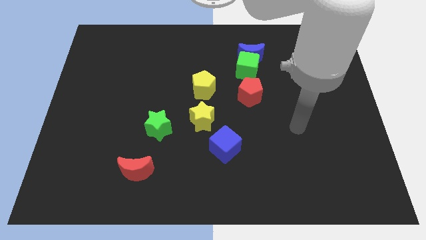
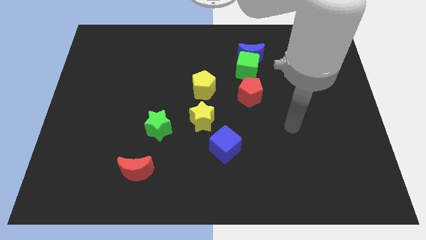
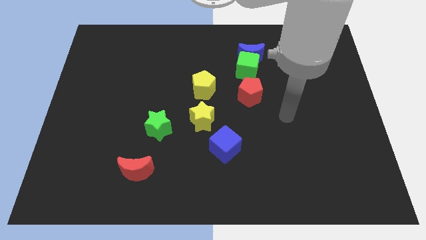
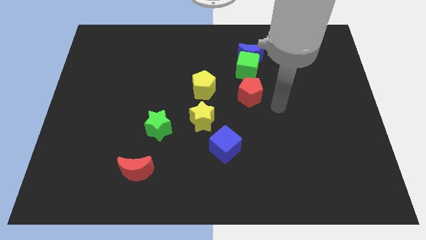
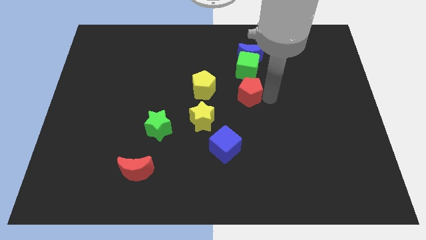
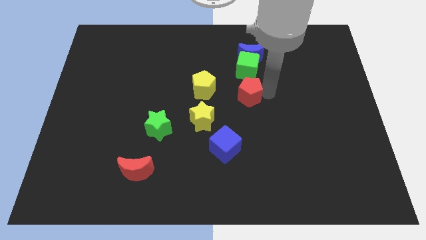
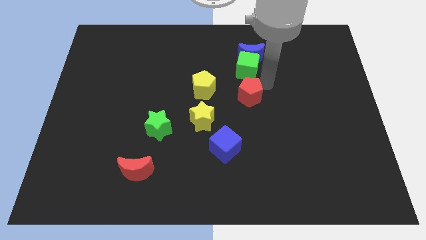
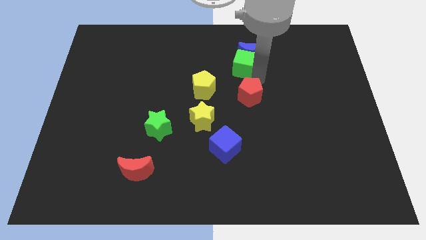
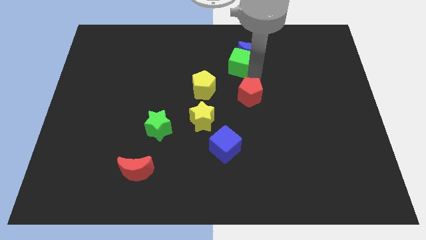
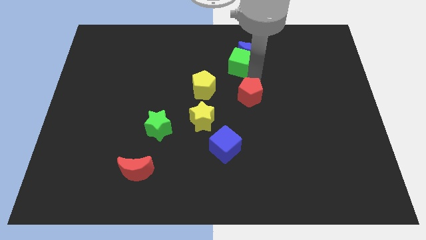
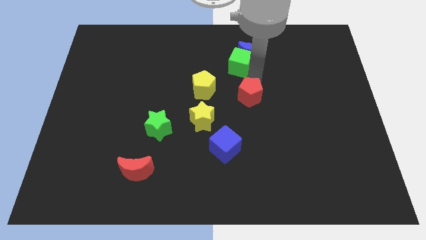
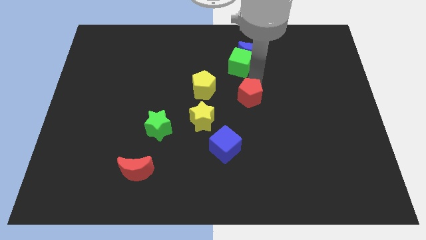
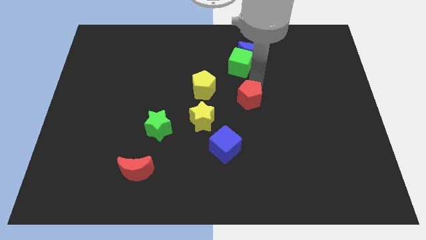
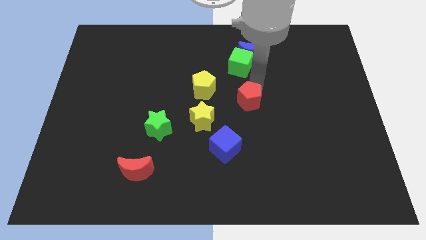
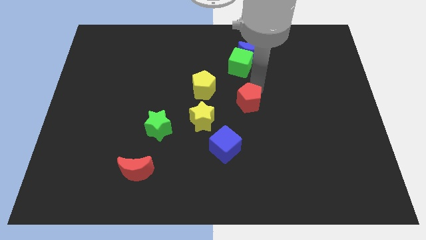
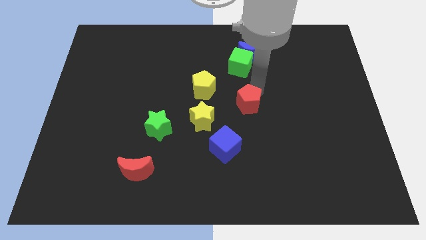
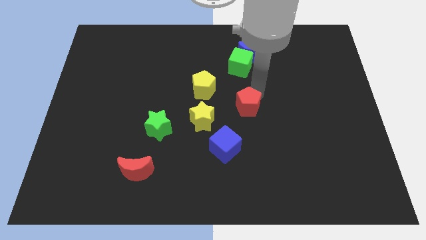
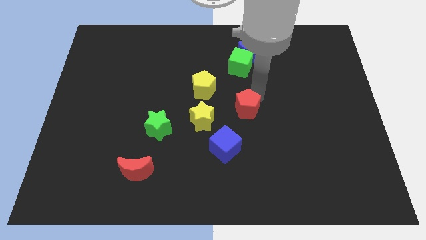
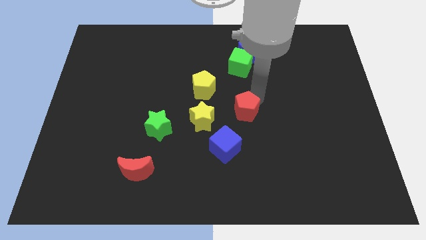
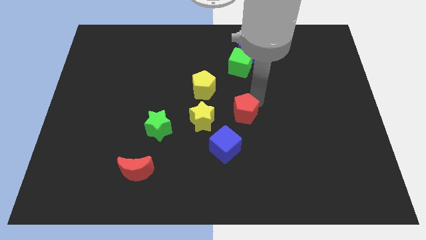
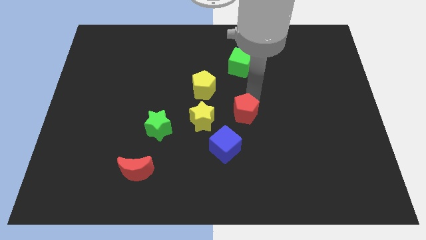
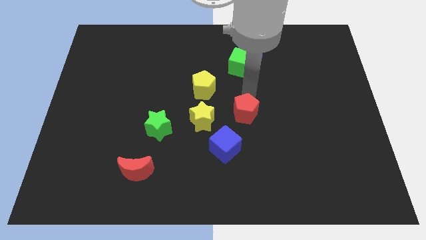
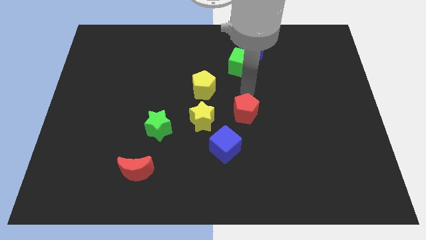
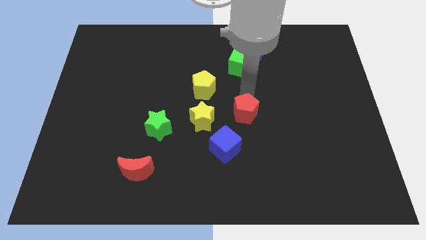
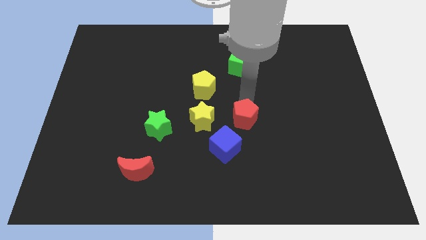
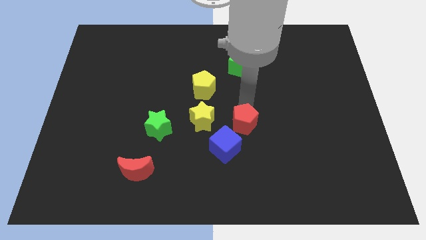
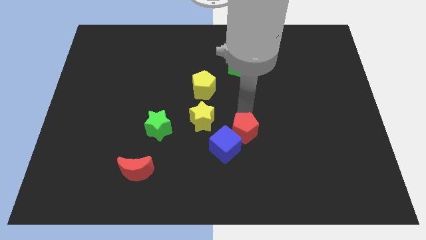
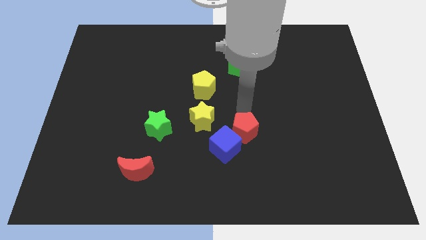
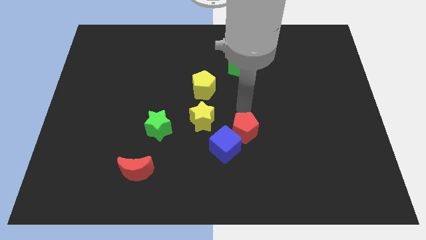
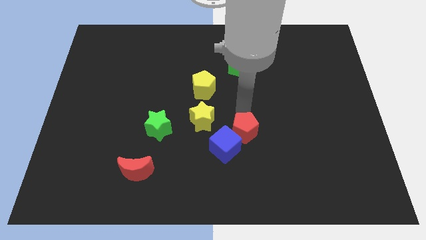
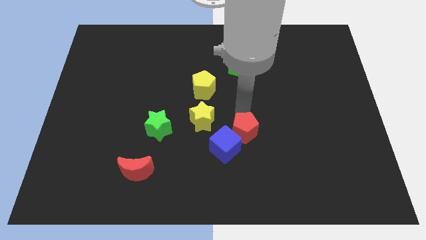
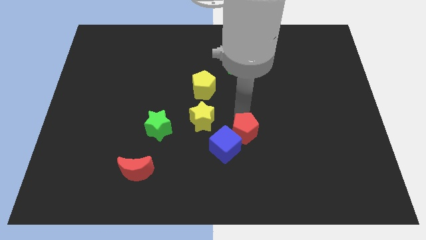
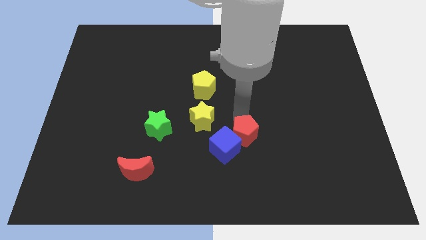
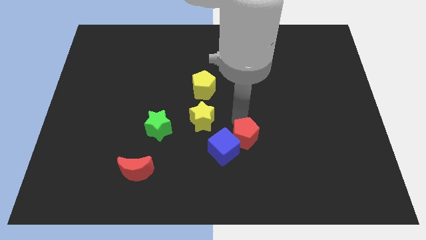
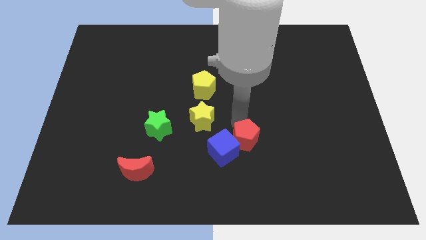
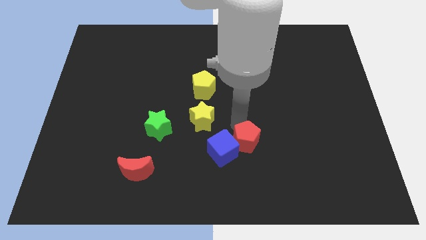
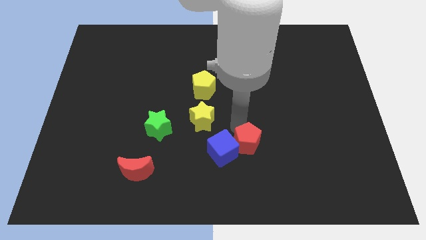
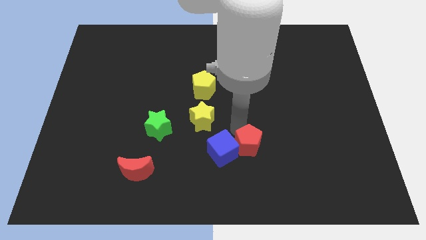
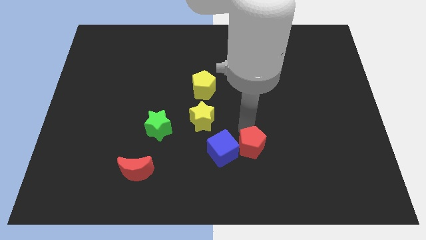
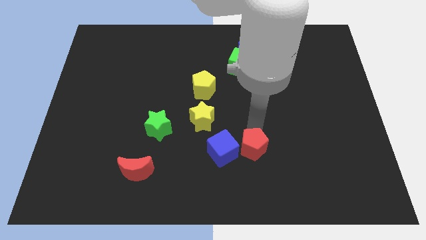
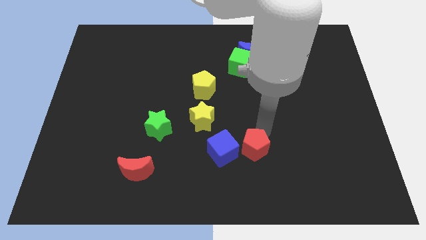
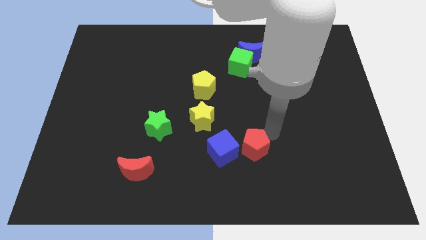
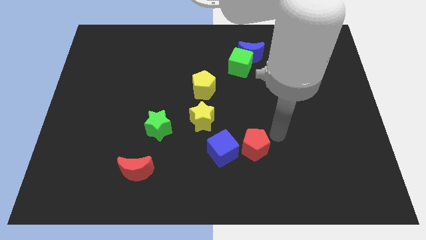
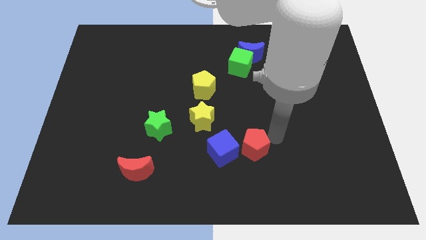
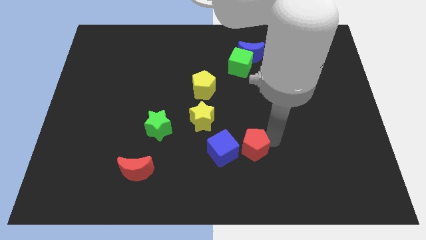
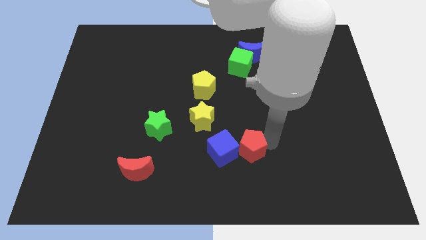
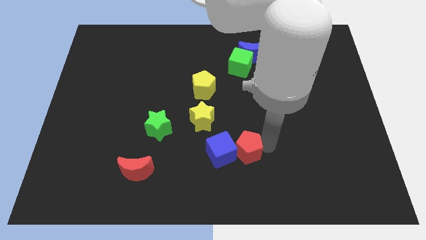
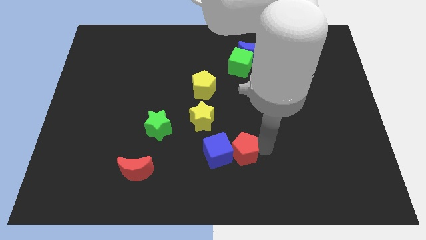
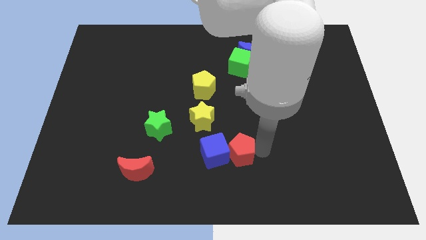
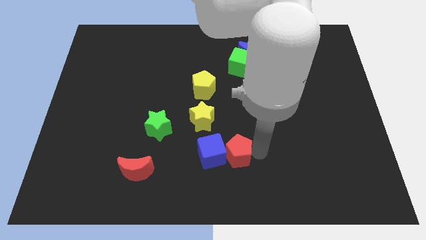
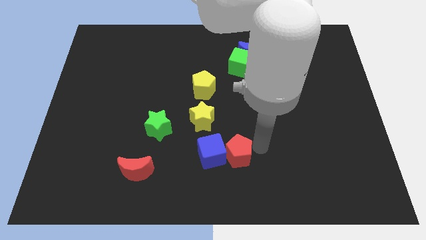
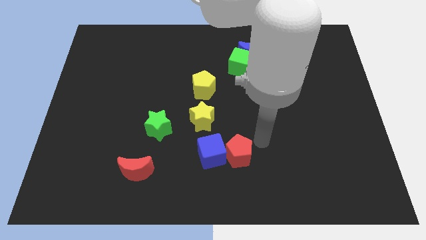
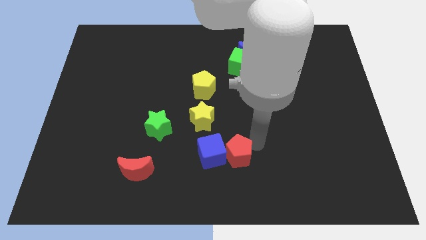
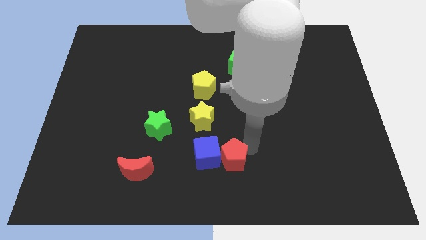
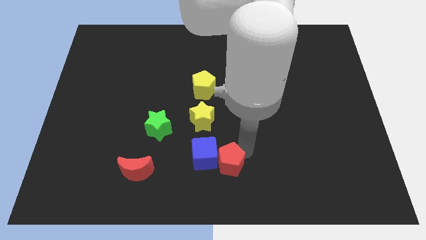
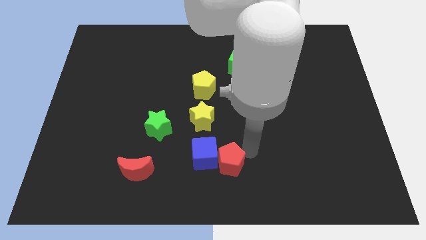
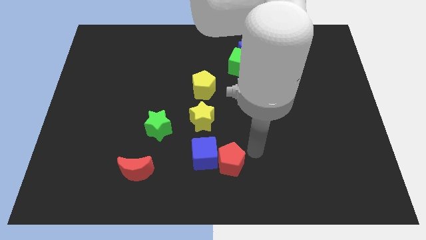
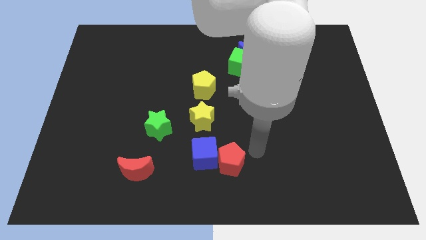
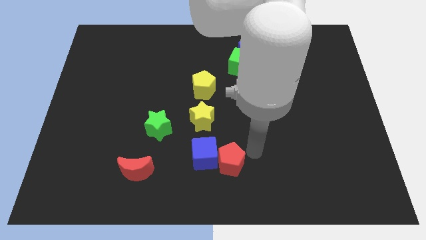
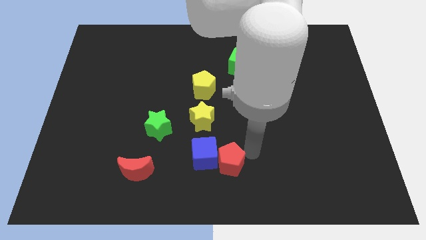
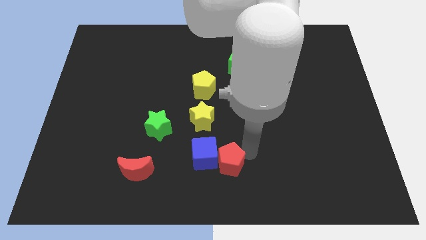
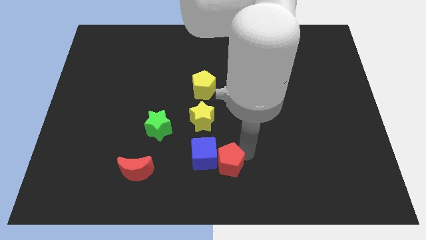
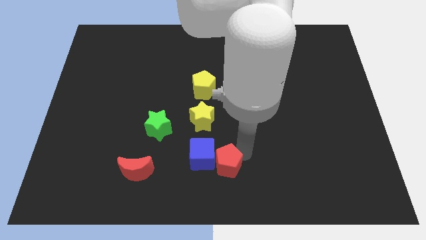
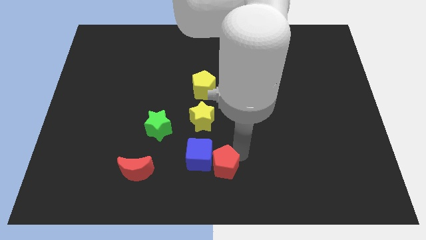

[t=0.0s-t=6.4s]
slide the red pentagon to the bottom of the yellow star

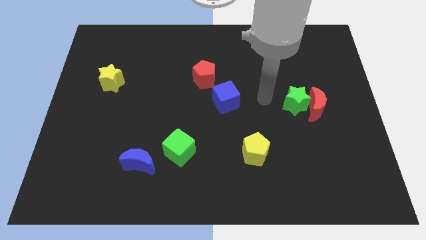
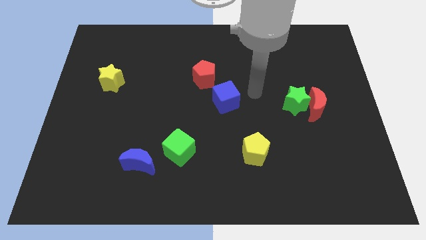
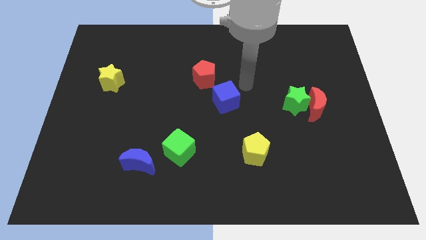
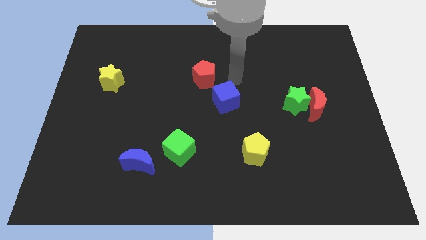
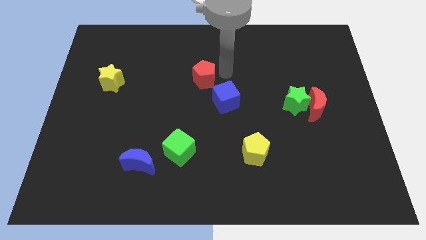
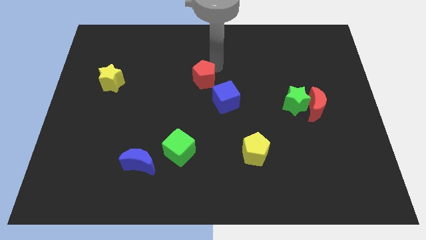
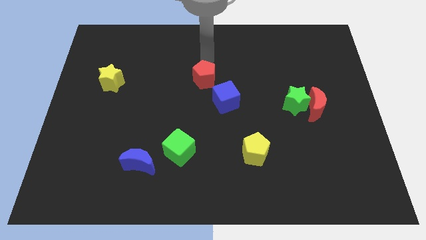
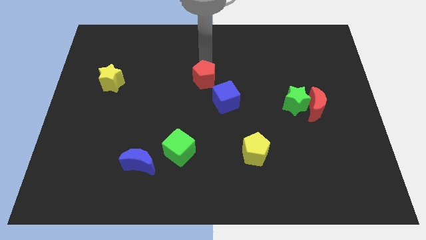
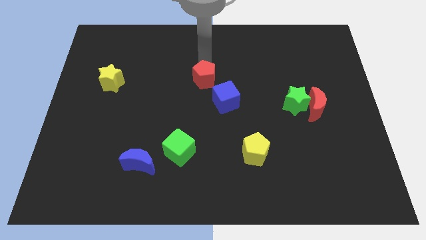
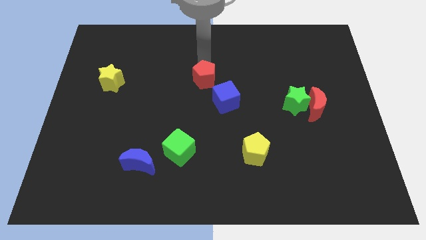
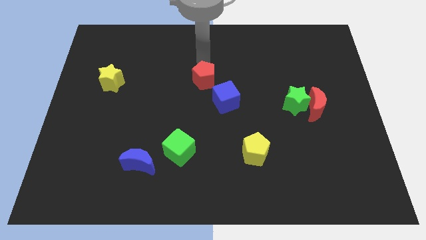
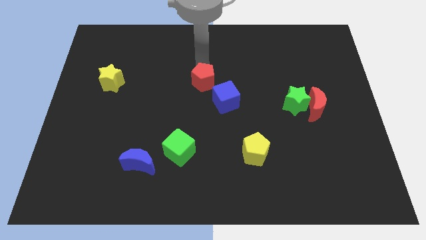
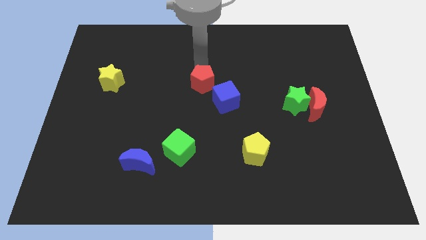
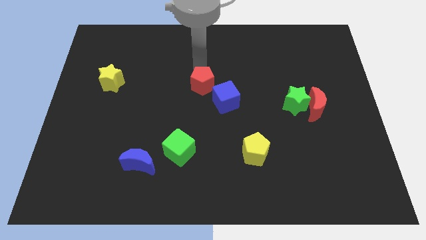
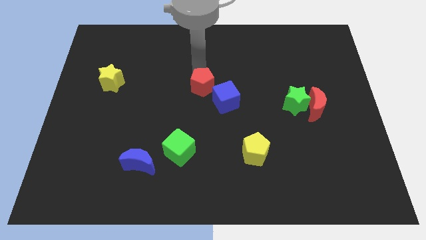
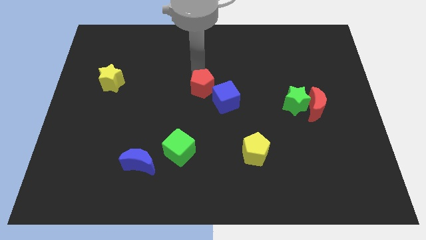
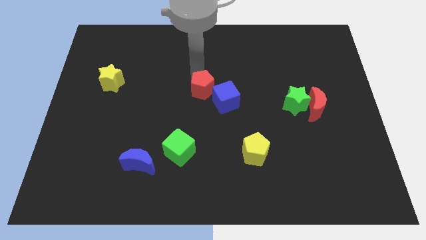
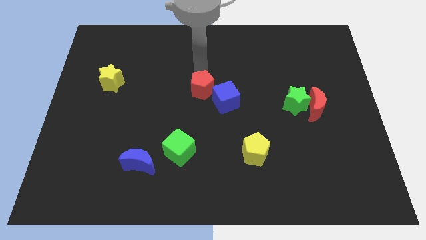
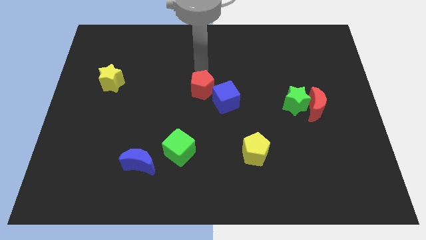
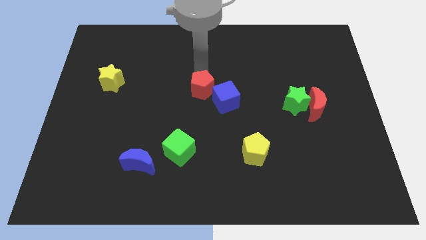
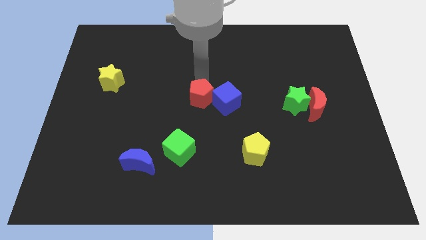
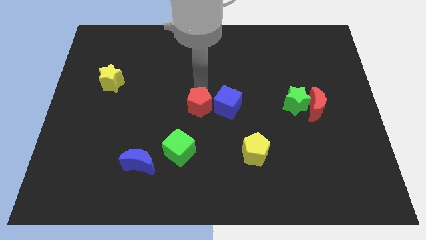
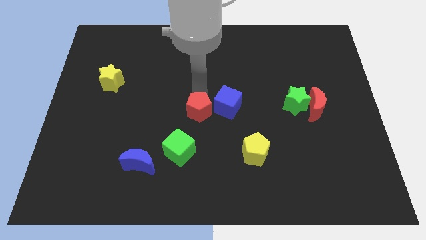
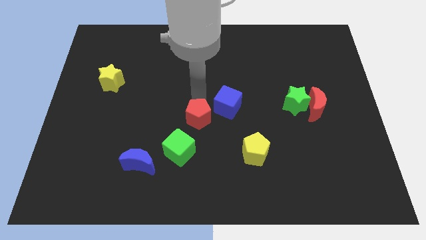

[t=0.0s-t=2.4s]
move the red pentagon diagonally up and to the right of the green cube
